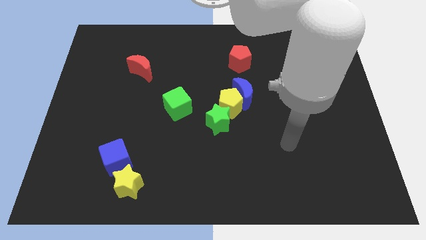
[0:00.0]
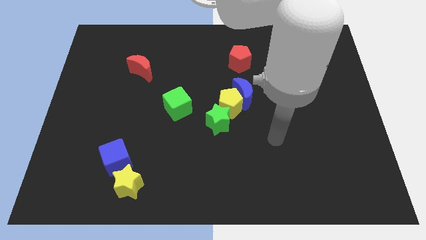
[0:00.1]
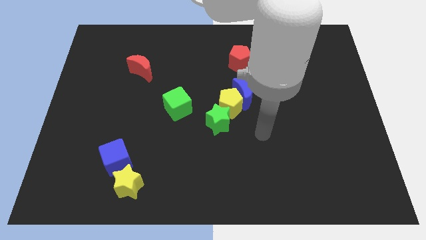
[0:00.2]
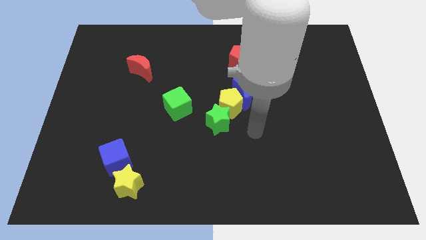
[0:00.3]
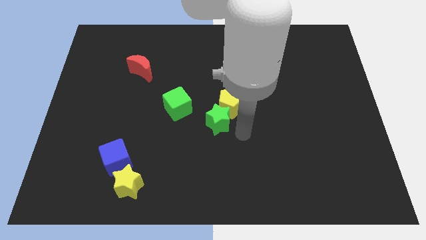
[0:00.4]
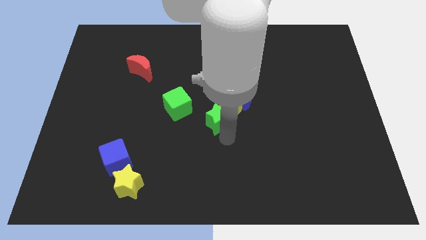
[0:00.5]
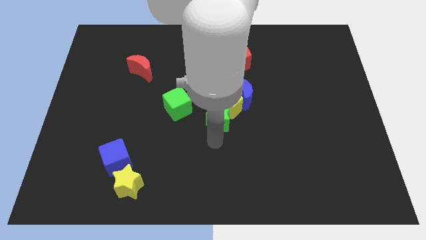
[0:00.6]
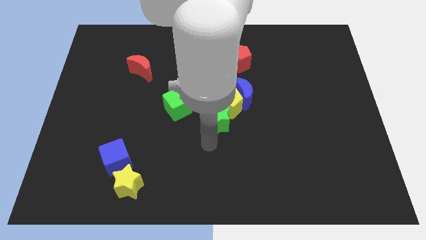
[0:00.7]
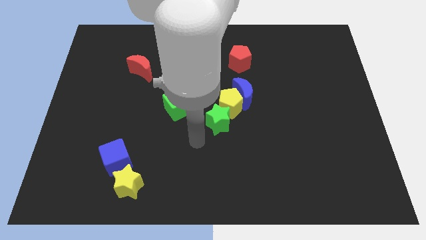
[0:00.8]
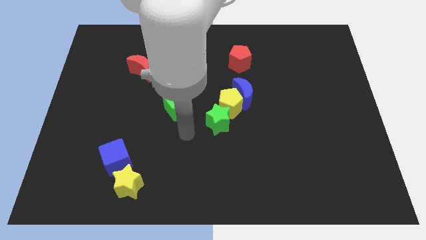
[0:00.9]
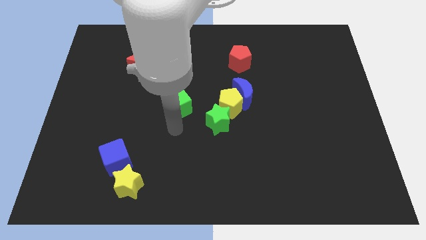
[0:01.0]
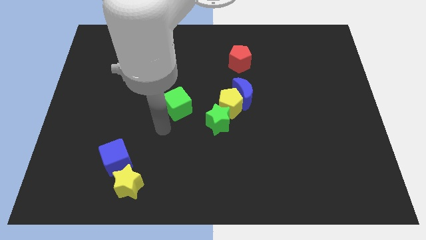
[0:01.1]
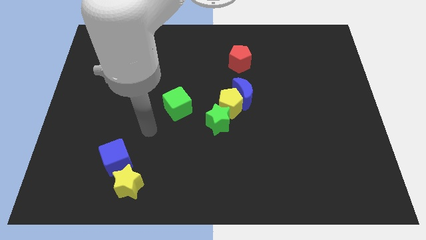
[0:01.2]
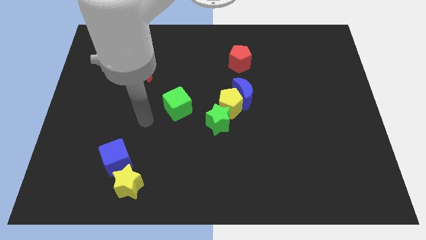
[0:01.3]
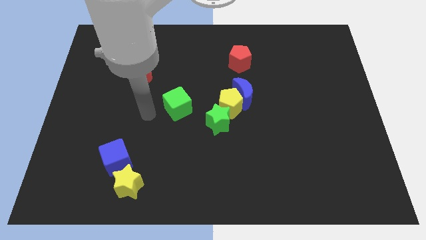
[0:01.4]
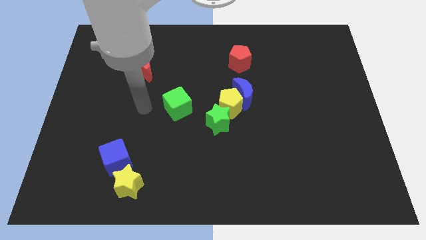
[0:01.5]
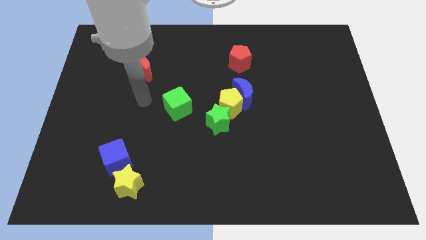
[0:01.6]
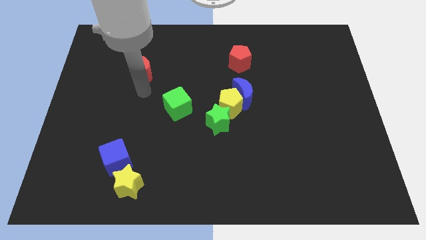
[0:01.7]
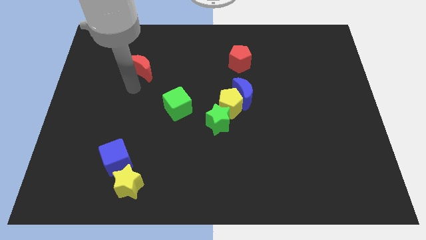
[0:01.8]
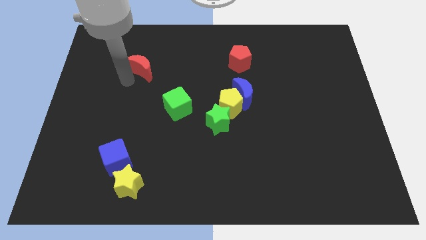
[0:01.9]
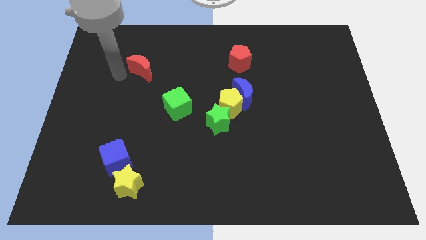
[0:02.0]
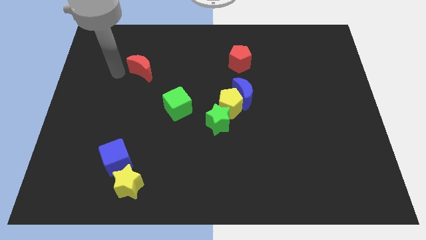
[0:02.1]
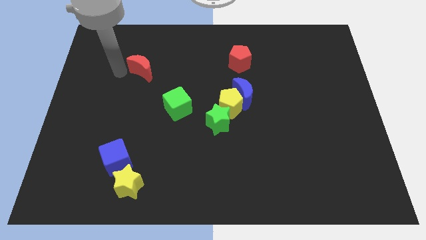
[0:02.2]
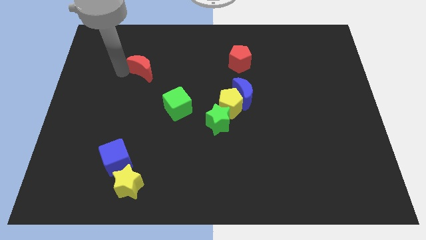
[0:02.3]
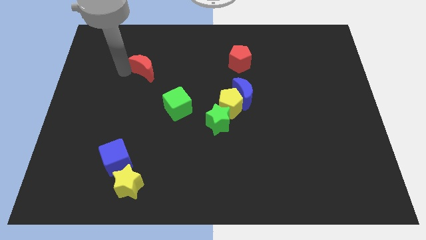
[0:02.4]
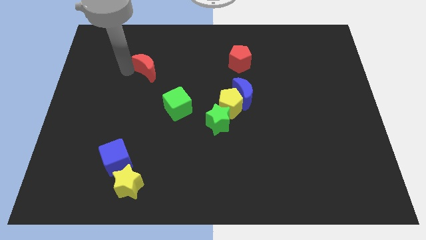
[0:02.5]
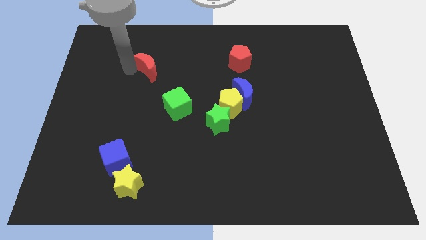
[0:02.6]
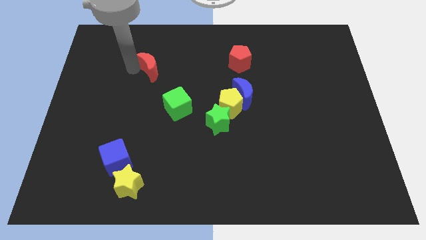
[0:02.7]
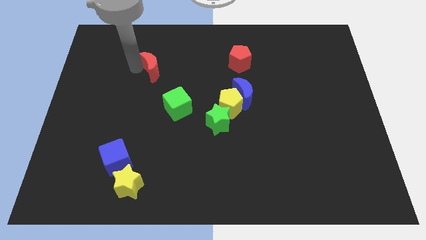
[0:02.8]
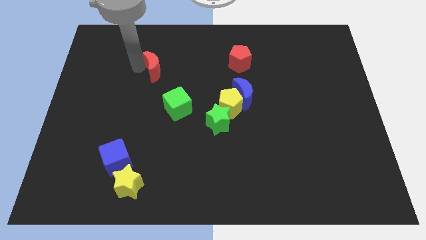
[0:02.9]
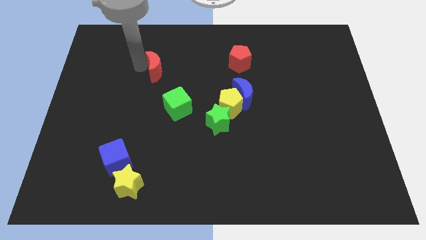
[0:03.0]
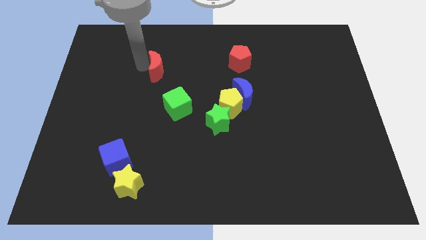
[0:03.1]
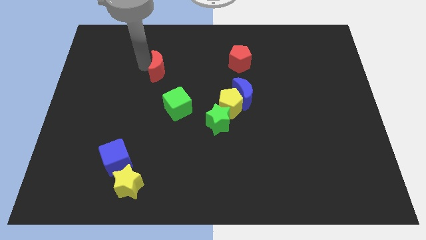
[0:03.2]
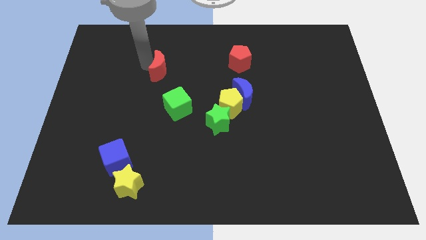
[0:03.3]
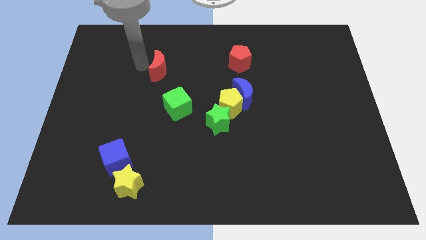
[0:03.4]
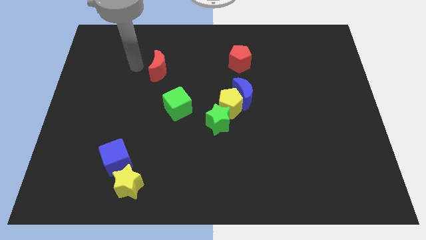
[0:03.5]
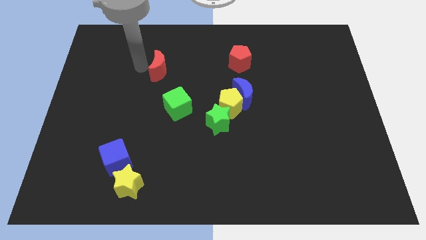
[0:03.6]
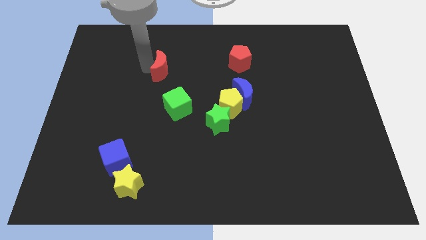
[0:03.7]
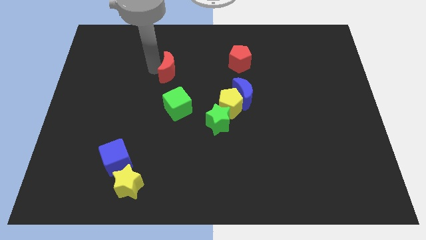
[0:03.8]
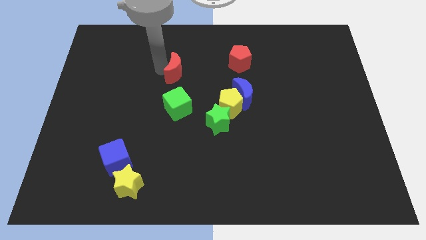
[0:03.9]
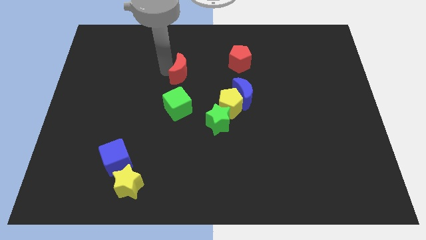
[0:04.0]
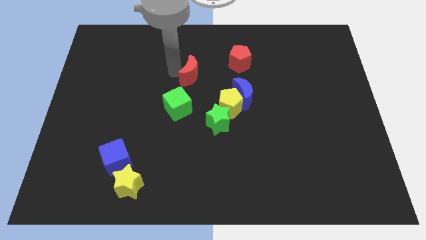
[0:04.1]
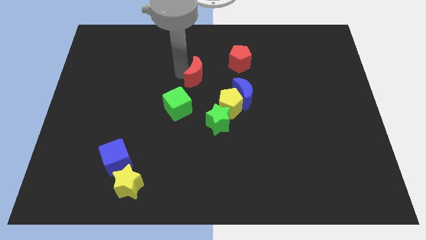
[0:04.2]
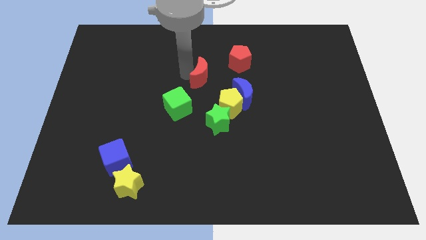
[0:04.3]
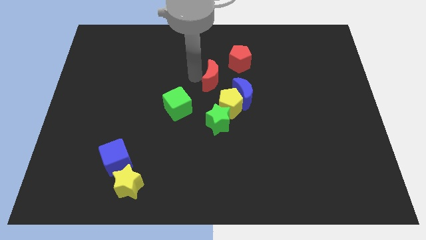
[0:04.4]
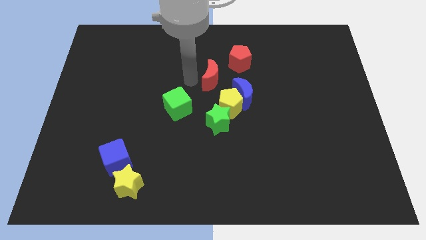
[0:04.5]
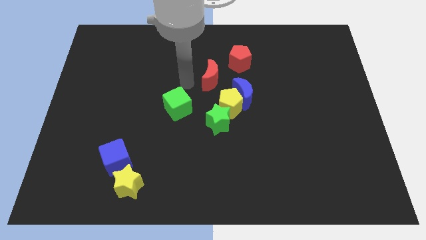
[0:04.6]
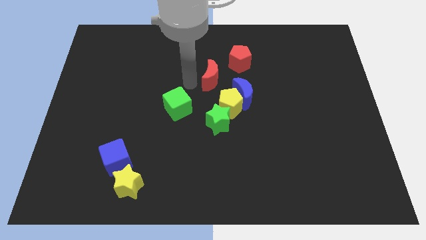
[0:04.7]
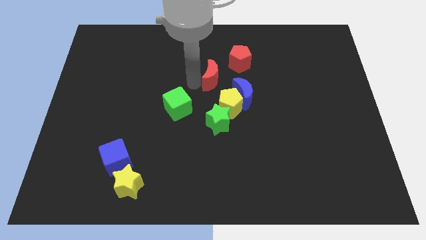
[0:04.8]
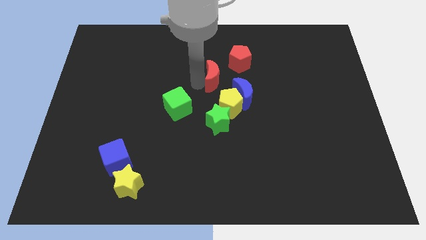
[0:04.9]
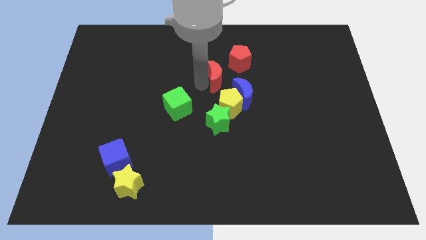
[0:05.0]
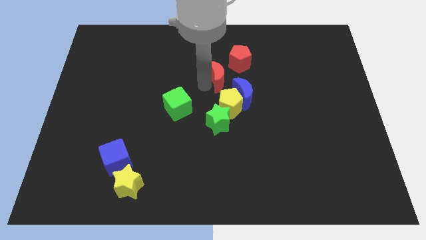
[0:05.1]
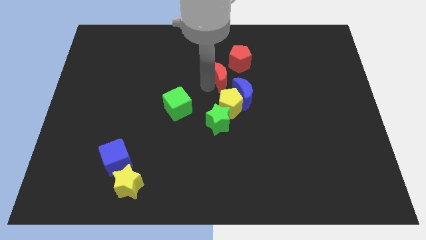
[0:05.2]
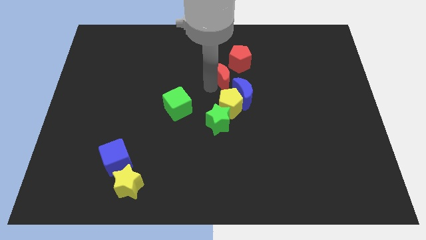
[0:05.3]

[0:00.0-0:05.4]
slide the red moon to the right

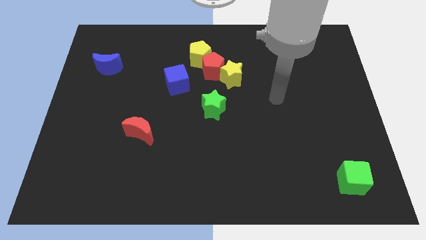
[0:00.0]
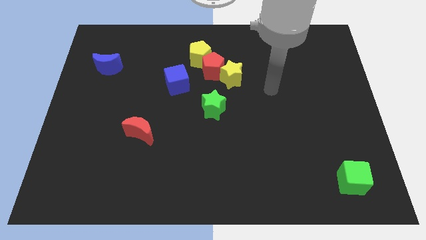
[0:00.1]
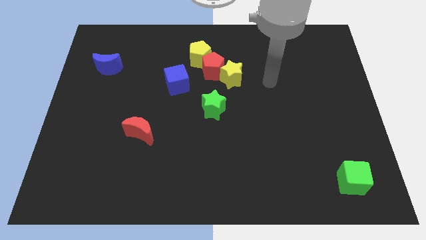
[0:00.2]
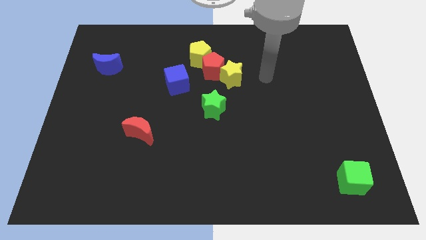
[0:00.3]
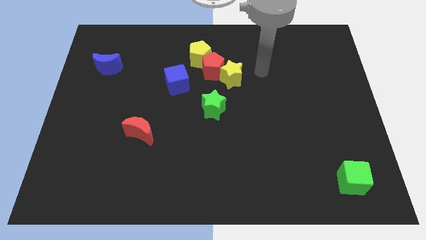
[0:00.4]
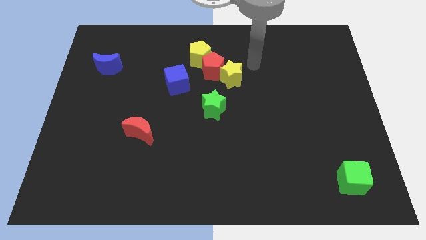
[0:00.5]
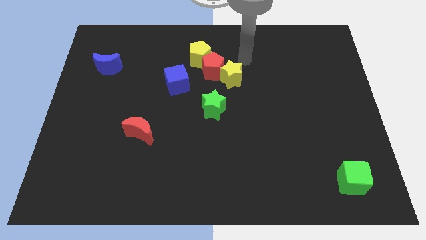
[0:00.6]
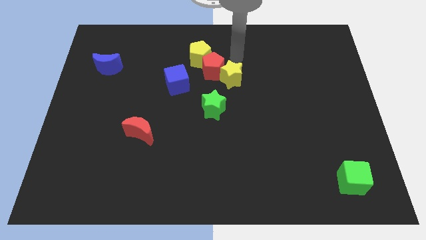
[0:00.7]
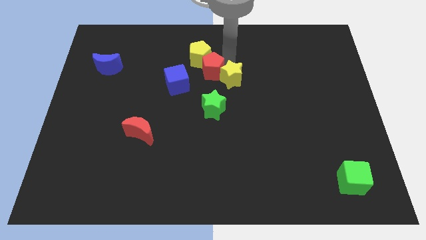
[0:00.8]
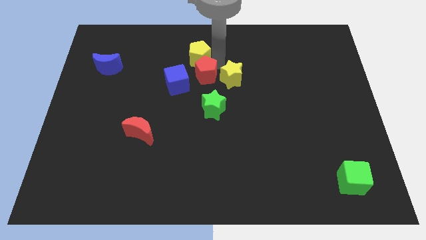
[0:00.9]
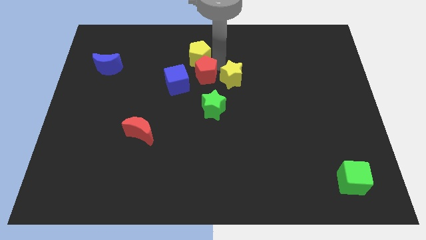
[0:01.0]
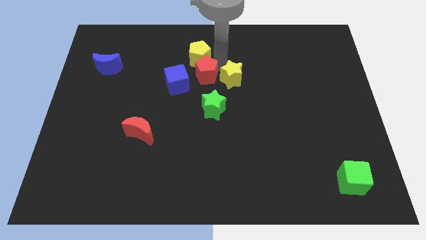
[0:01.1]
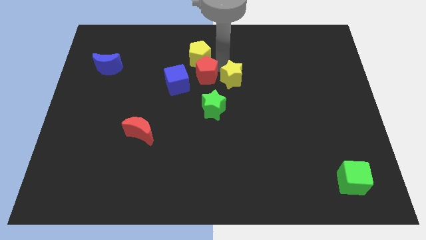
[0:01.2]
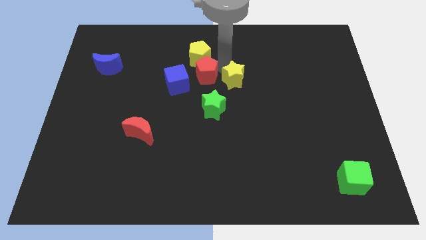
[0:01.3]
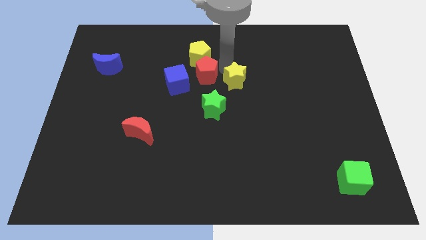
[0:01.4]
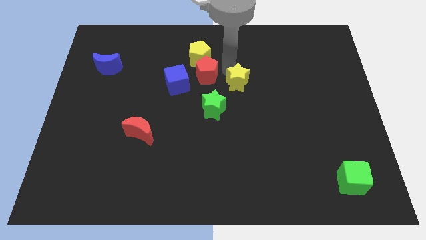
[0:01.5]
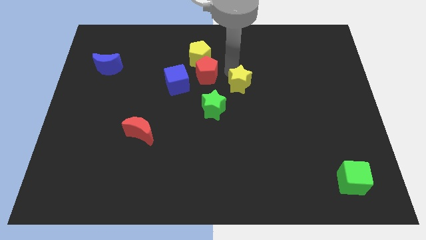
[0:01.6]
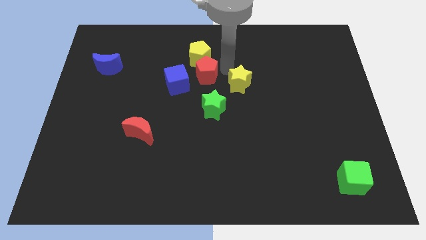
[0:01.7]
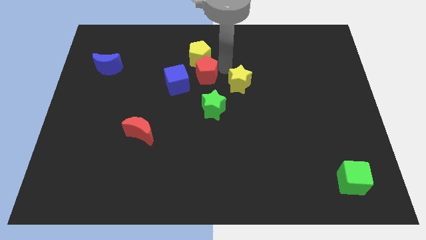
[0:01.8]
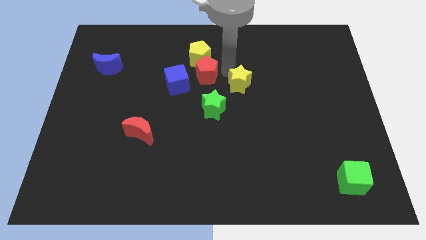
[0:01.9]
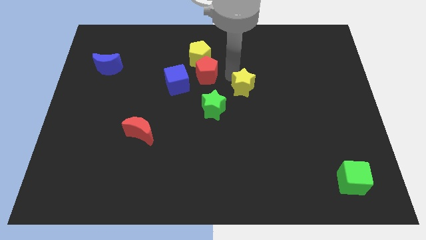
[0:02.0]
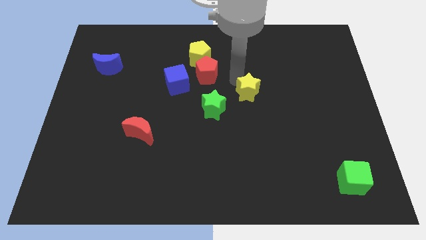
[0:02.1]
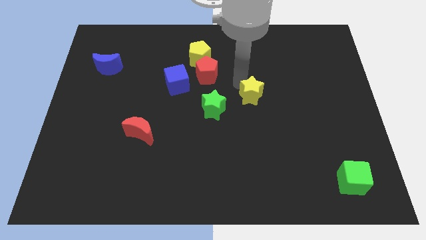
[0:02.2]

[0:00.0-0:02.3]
slightly move the yellow star downwards and right diagonally

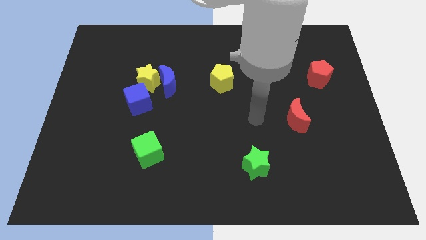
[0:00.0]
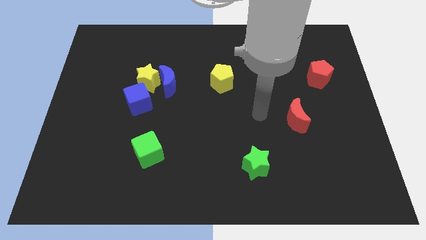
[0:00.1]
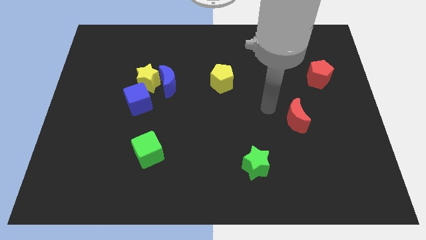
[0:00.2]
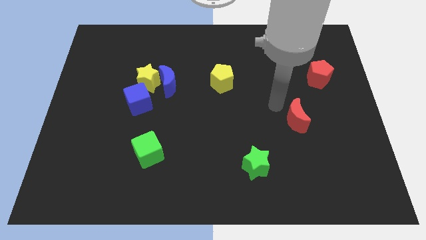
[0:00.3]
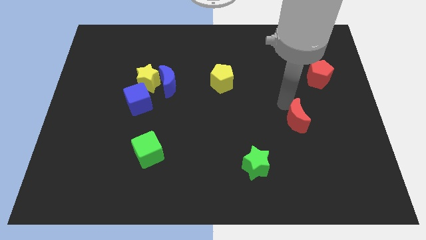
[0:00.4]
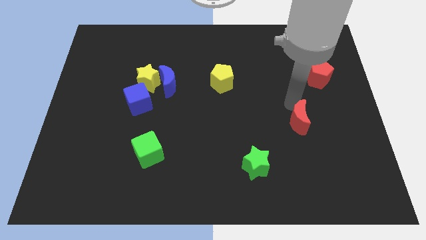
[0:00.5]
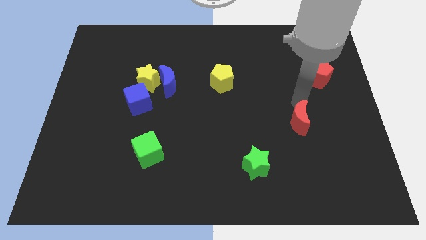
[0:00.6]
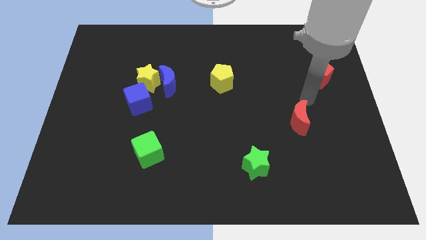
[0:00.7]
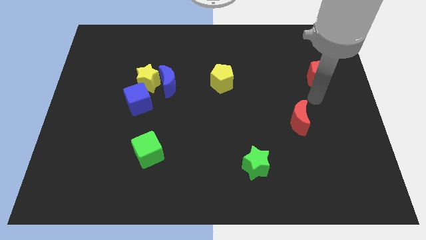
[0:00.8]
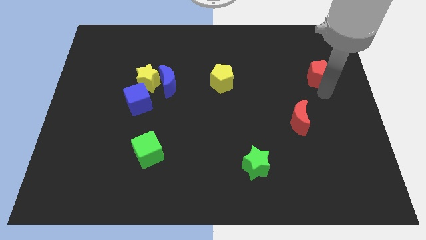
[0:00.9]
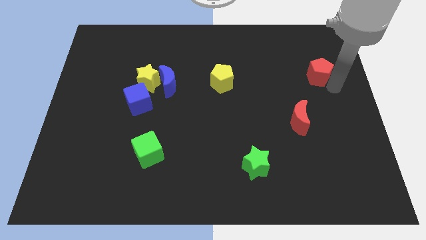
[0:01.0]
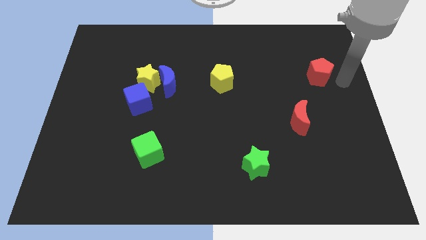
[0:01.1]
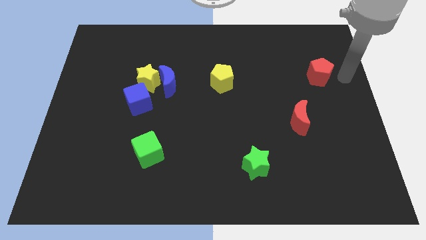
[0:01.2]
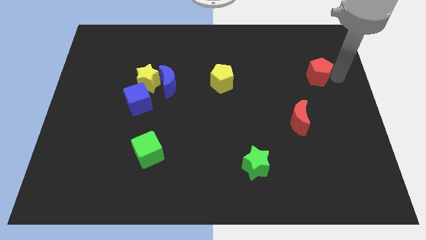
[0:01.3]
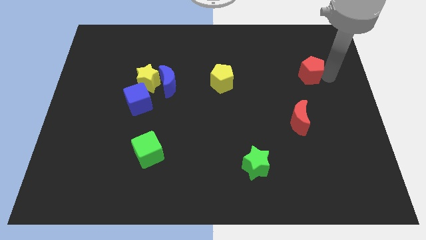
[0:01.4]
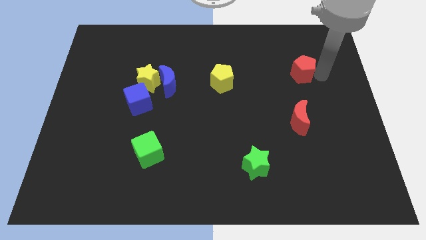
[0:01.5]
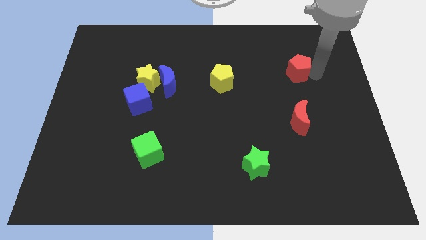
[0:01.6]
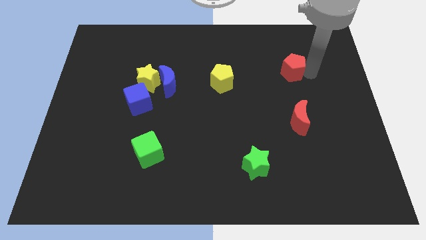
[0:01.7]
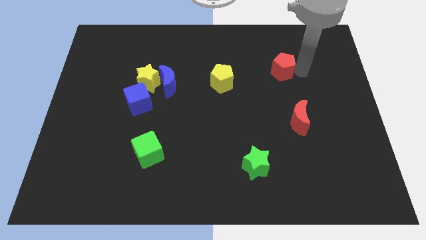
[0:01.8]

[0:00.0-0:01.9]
push the red pentagon a bit to the left
